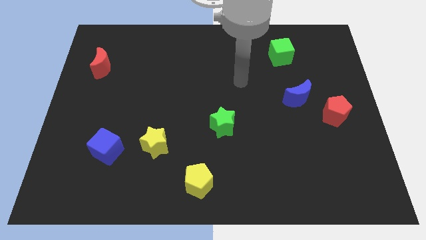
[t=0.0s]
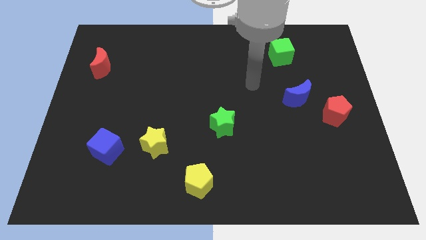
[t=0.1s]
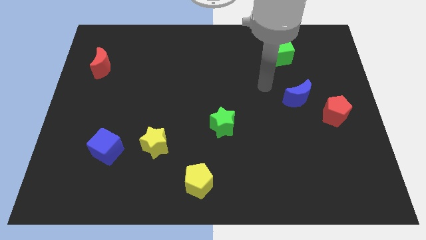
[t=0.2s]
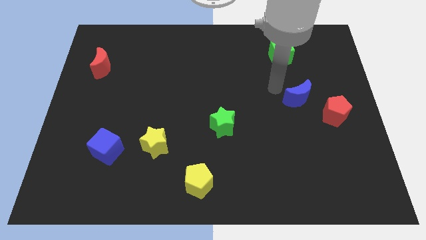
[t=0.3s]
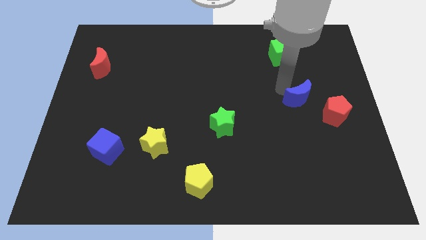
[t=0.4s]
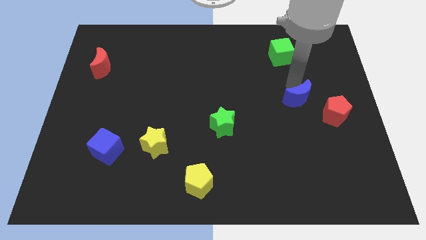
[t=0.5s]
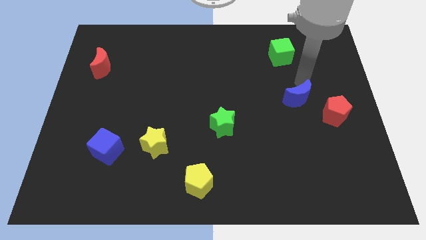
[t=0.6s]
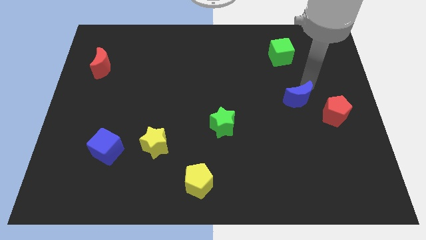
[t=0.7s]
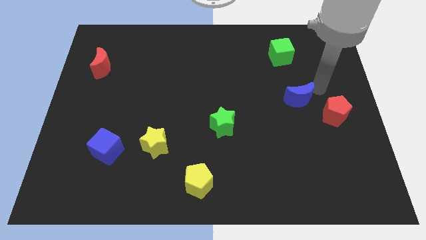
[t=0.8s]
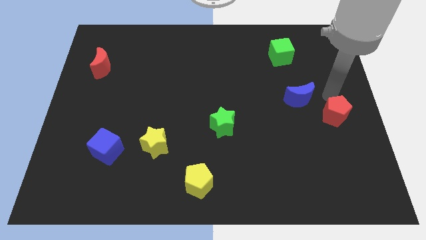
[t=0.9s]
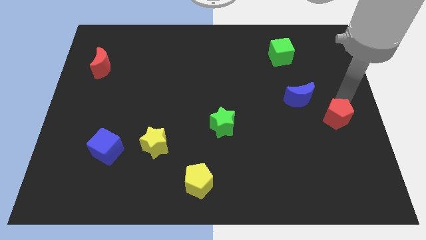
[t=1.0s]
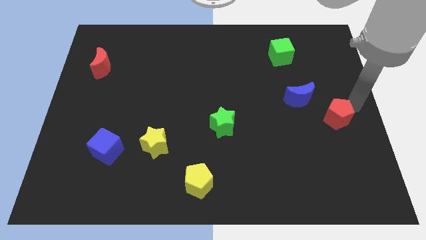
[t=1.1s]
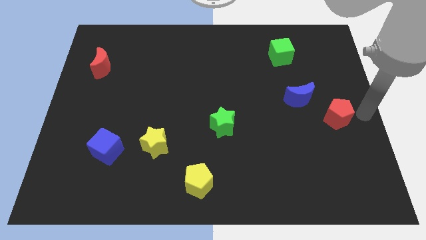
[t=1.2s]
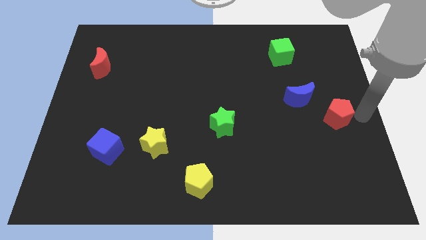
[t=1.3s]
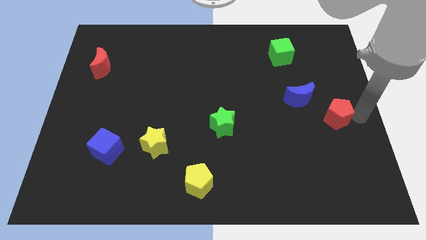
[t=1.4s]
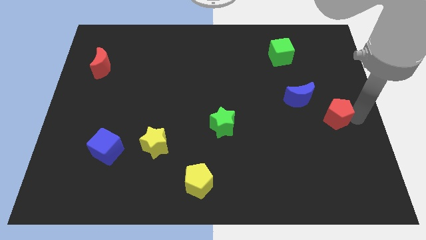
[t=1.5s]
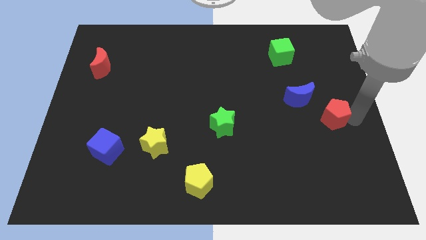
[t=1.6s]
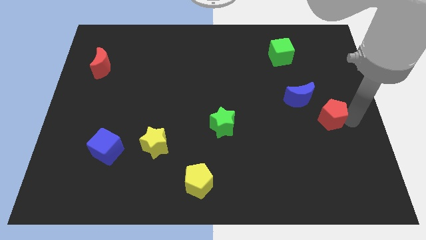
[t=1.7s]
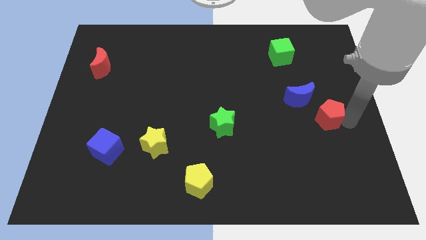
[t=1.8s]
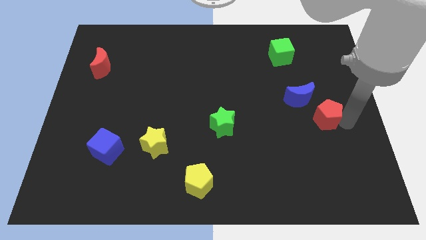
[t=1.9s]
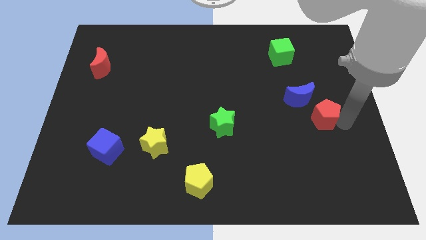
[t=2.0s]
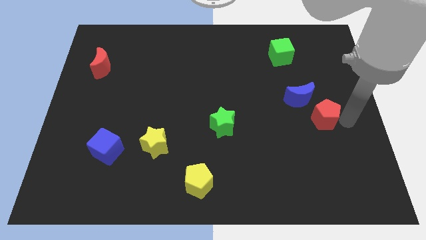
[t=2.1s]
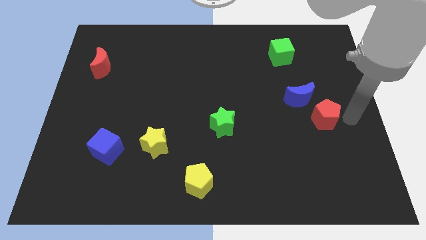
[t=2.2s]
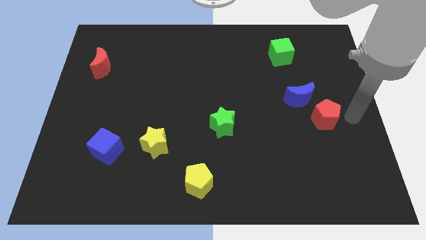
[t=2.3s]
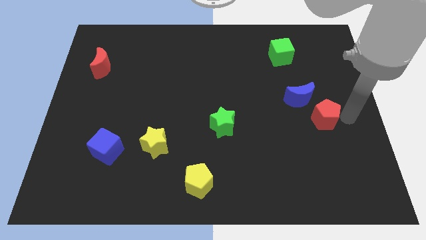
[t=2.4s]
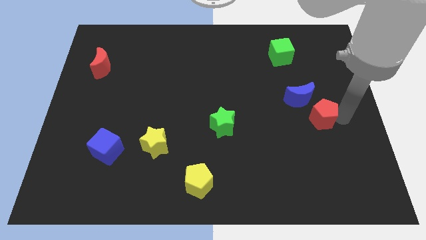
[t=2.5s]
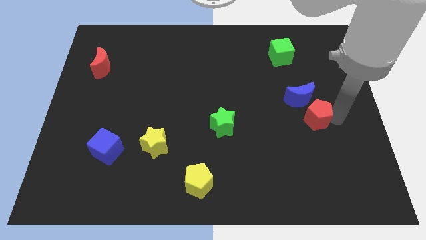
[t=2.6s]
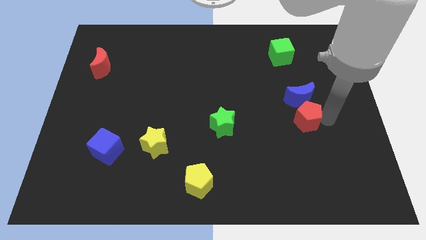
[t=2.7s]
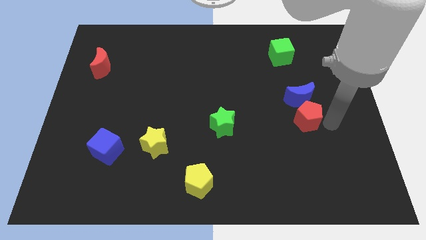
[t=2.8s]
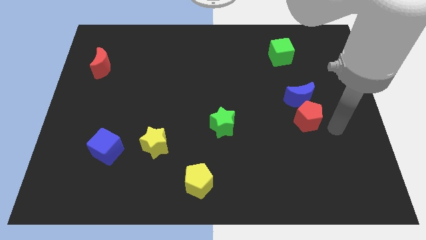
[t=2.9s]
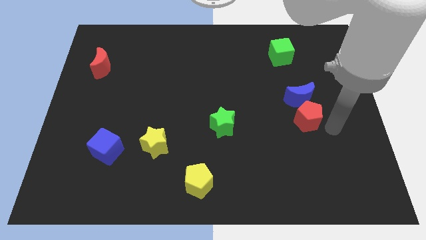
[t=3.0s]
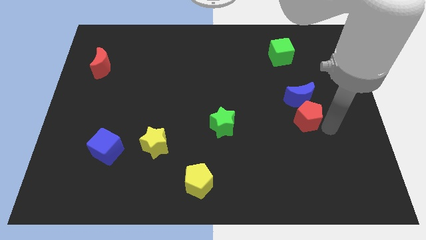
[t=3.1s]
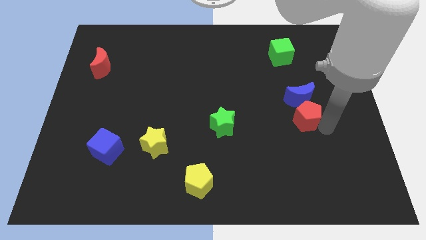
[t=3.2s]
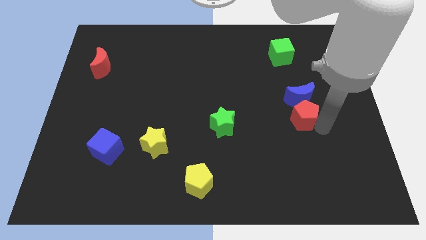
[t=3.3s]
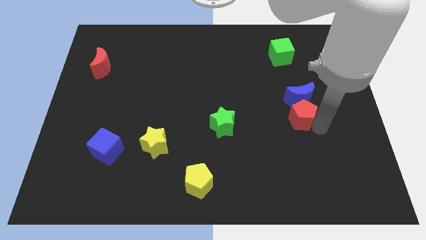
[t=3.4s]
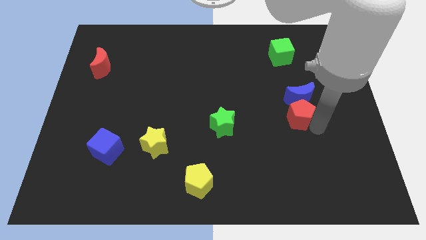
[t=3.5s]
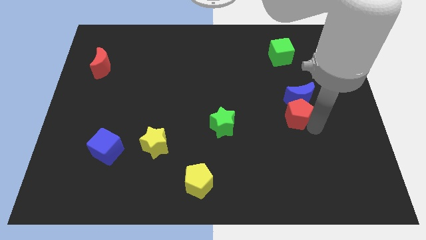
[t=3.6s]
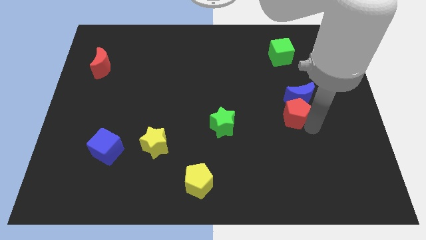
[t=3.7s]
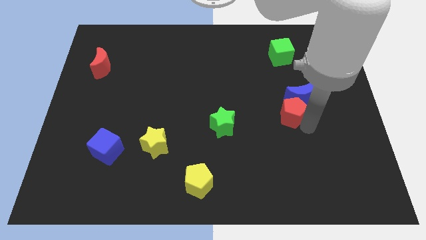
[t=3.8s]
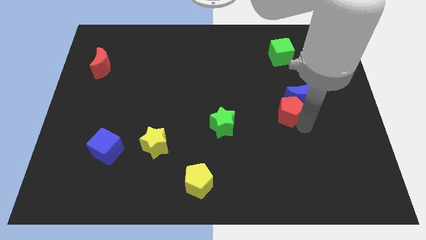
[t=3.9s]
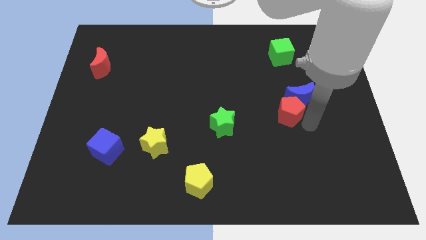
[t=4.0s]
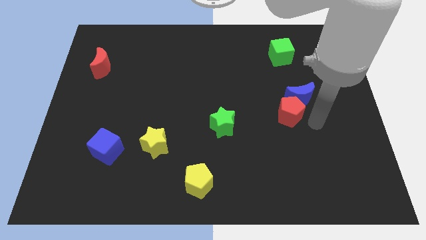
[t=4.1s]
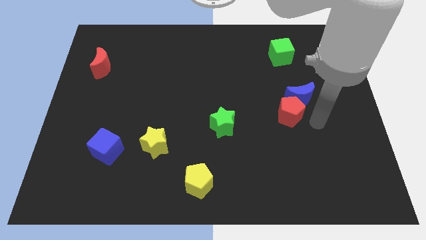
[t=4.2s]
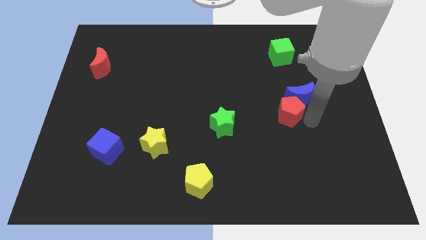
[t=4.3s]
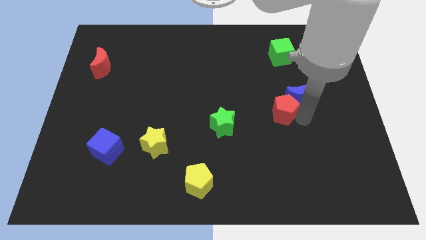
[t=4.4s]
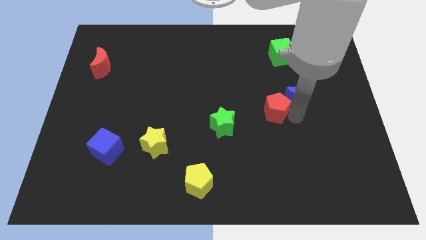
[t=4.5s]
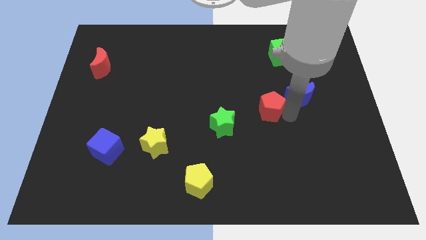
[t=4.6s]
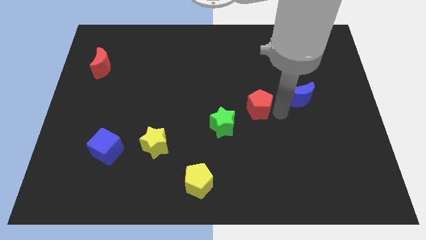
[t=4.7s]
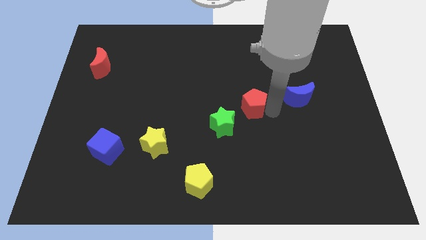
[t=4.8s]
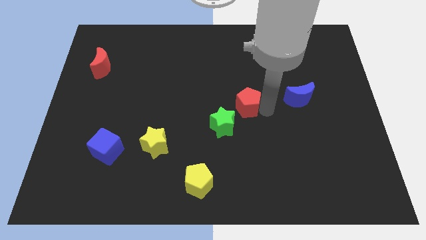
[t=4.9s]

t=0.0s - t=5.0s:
push the red pentagon to the left

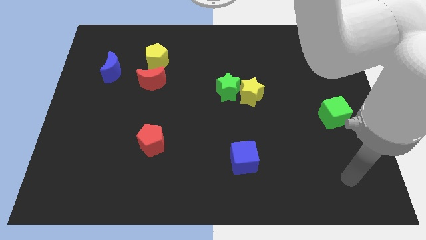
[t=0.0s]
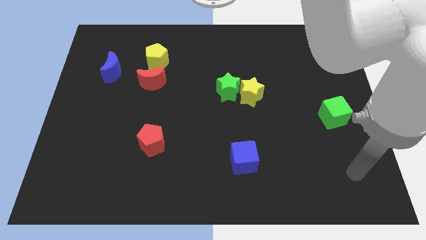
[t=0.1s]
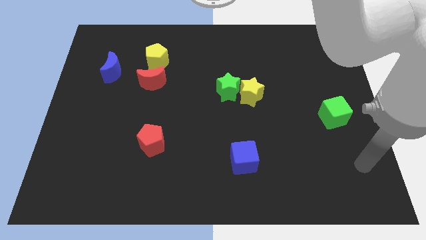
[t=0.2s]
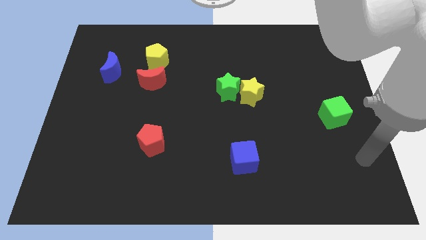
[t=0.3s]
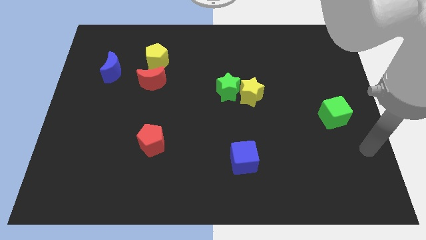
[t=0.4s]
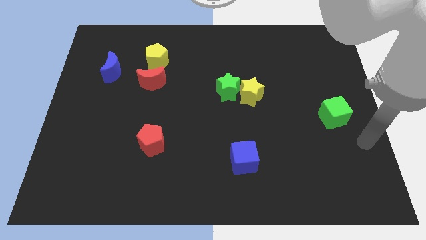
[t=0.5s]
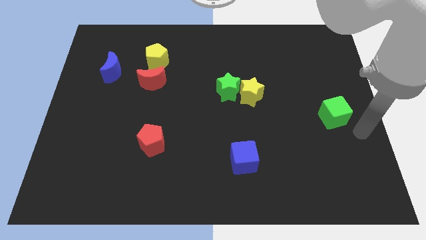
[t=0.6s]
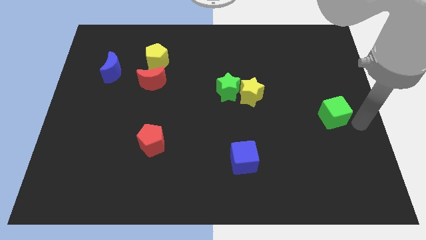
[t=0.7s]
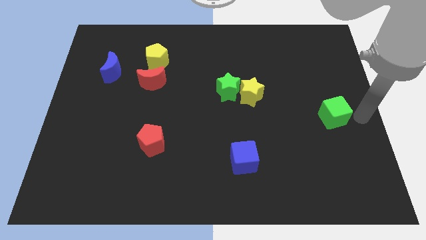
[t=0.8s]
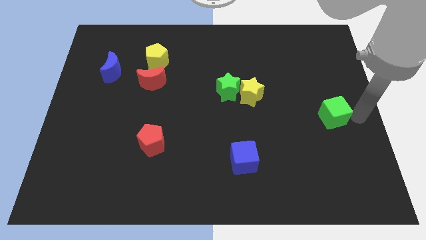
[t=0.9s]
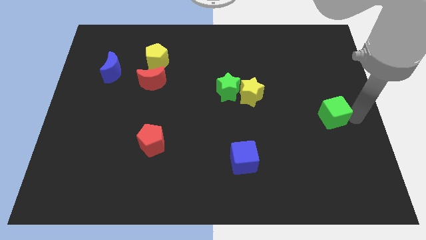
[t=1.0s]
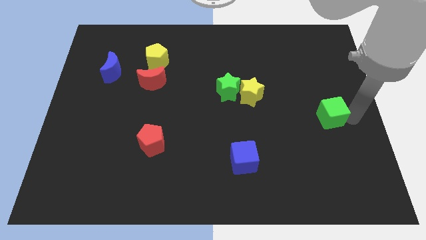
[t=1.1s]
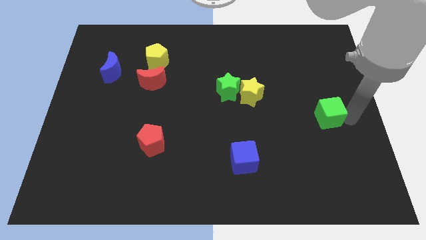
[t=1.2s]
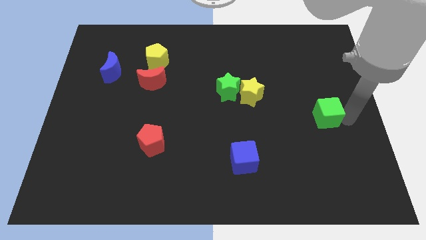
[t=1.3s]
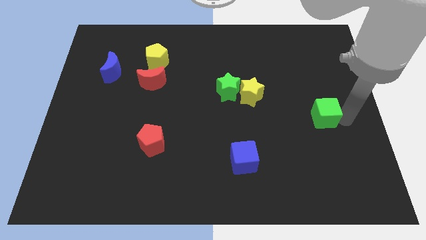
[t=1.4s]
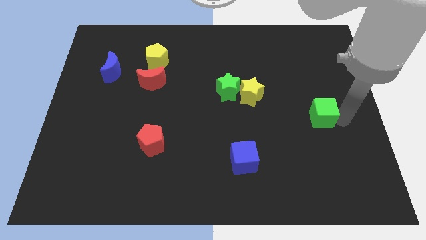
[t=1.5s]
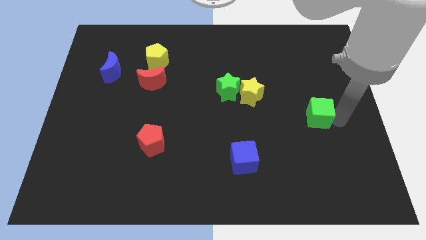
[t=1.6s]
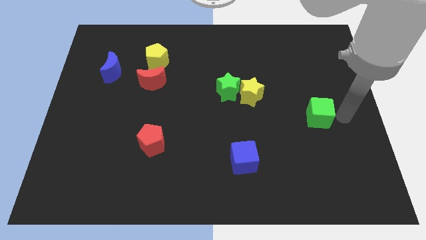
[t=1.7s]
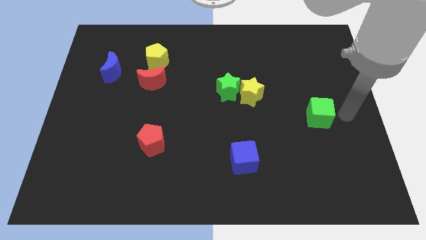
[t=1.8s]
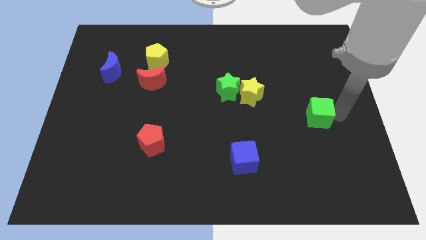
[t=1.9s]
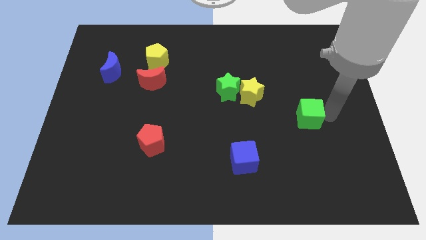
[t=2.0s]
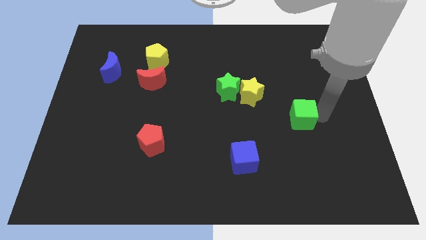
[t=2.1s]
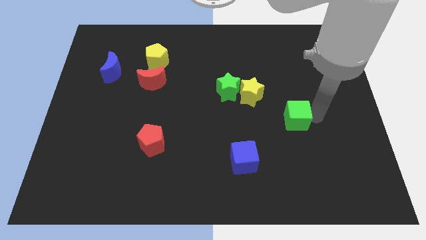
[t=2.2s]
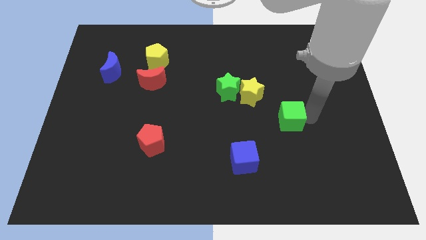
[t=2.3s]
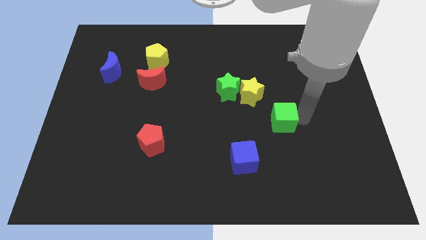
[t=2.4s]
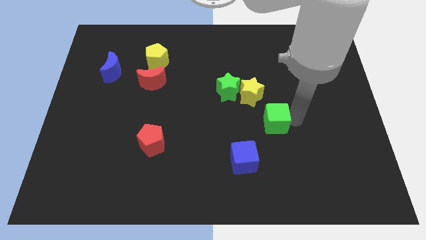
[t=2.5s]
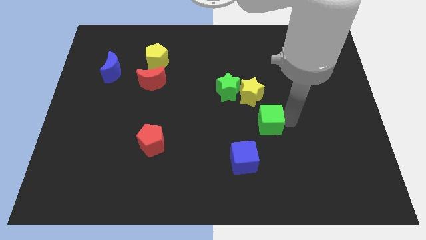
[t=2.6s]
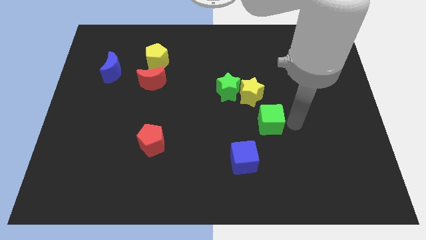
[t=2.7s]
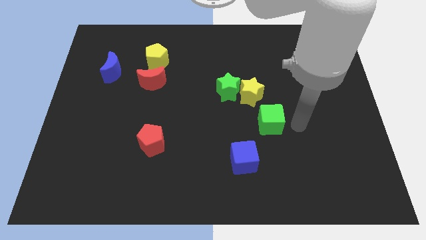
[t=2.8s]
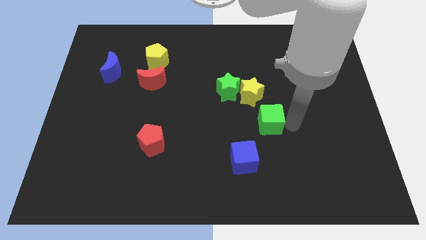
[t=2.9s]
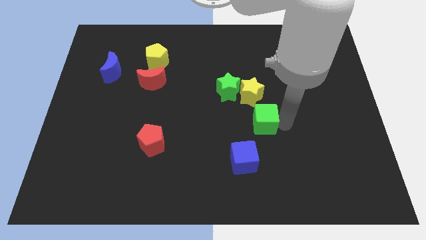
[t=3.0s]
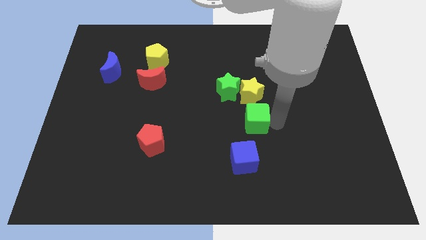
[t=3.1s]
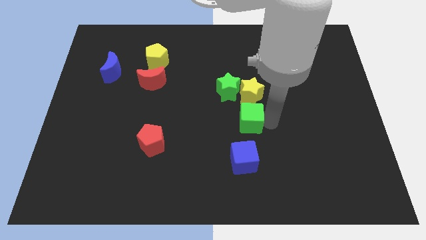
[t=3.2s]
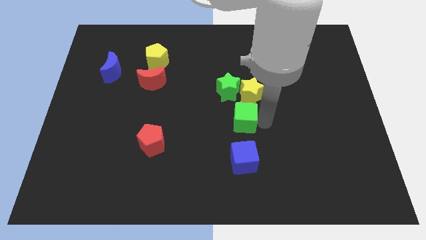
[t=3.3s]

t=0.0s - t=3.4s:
move the green cube to the left
